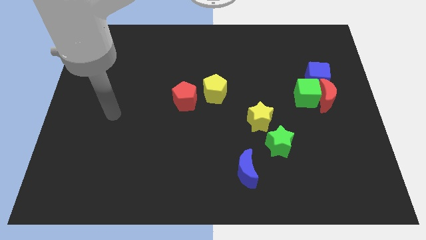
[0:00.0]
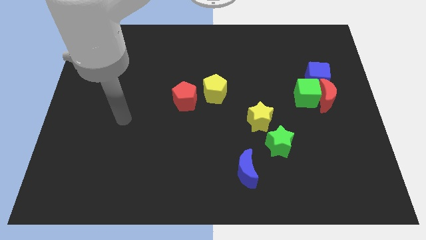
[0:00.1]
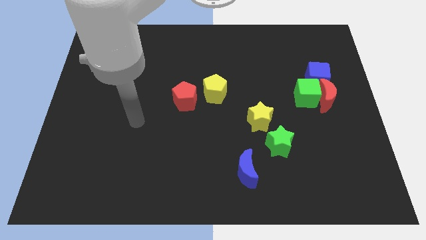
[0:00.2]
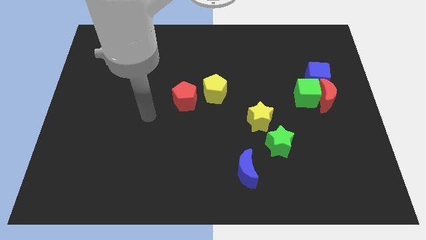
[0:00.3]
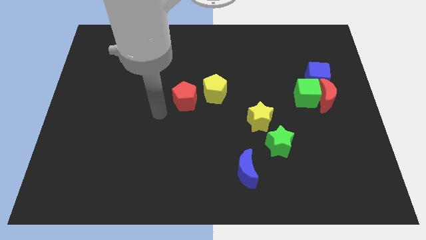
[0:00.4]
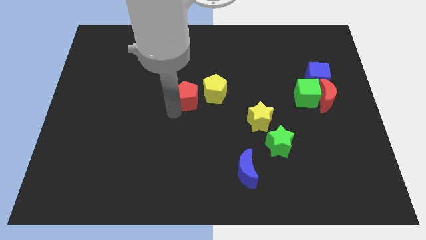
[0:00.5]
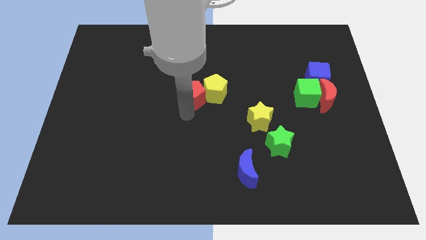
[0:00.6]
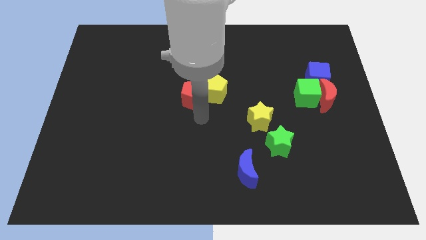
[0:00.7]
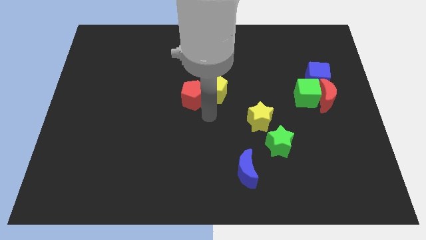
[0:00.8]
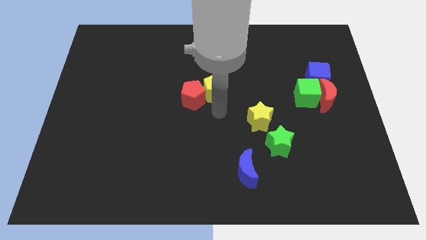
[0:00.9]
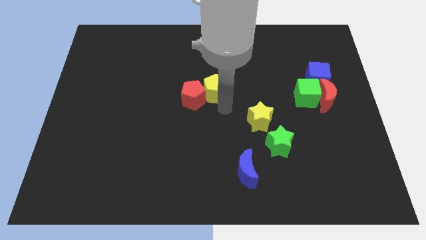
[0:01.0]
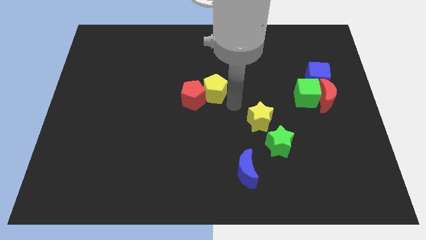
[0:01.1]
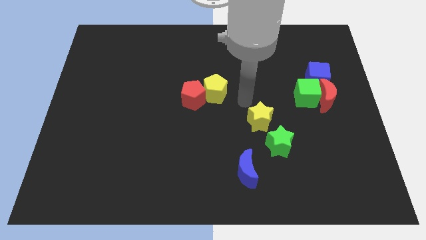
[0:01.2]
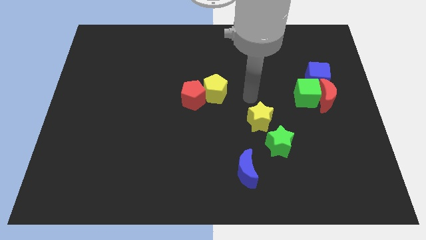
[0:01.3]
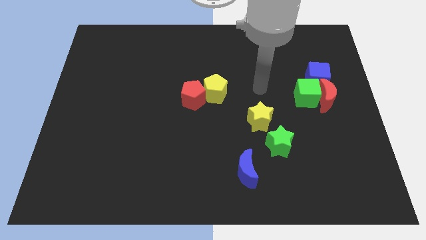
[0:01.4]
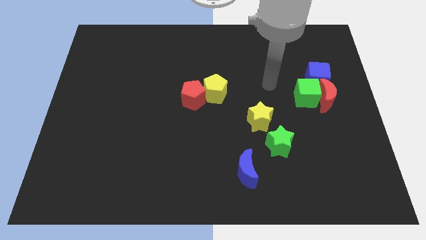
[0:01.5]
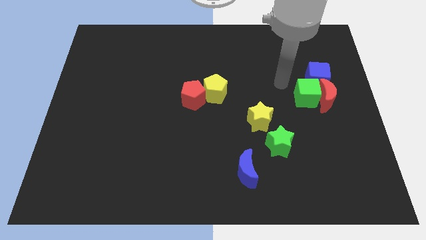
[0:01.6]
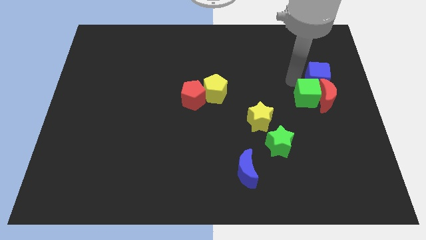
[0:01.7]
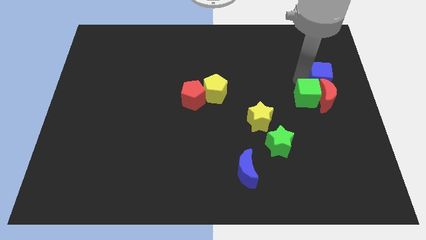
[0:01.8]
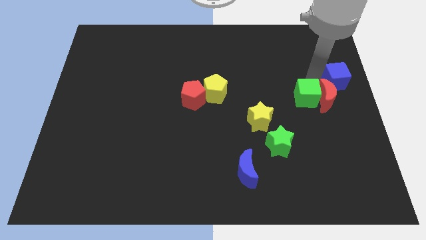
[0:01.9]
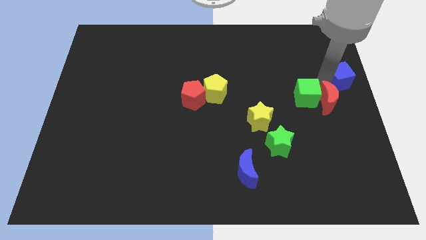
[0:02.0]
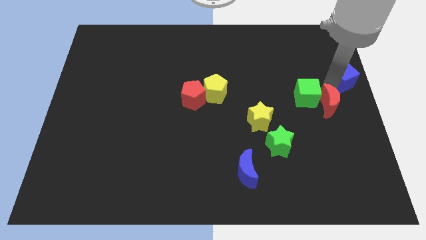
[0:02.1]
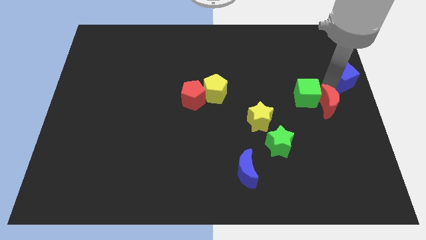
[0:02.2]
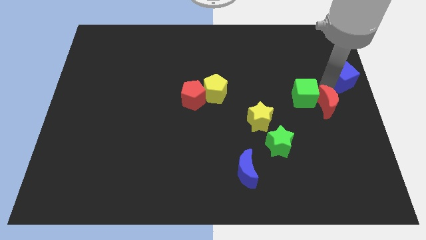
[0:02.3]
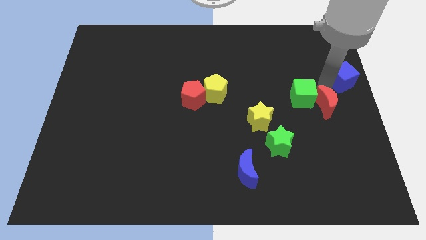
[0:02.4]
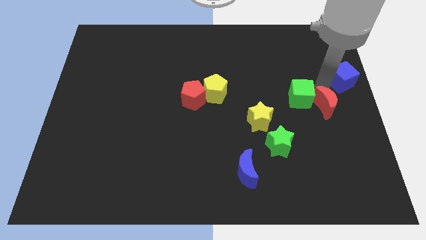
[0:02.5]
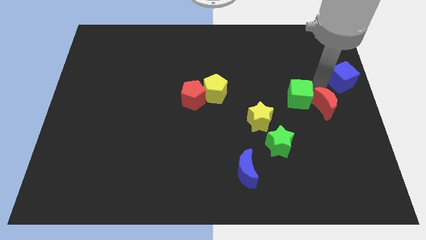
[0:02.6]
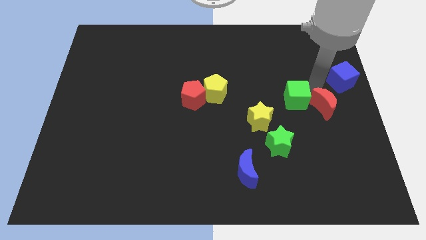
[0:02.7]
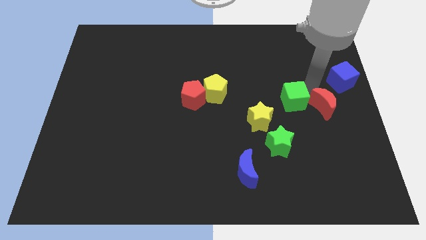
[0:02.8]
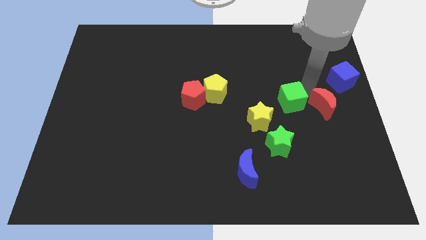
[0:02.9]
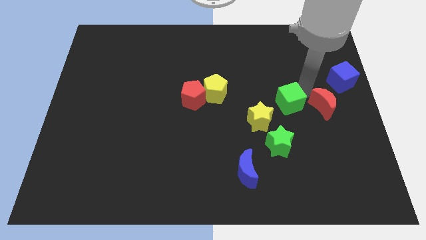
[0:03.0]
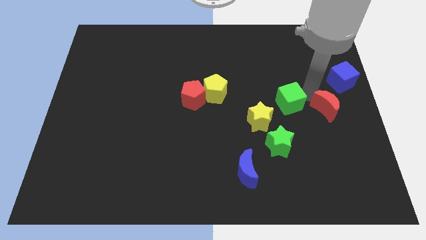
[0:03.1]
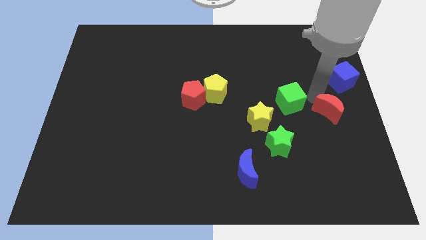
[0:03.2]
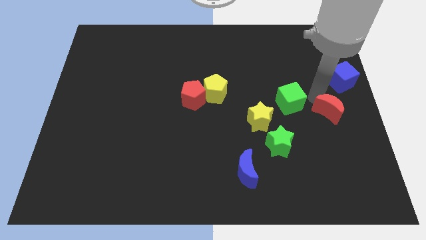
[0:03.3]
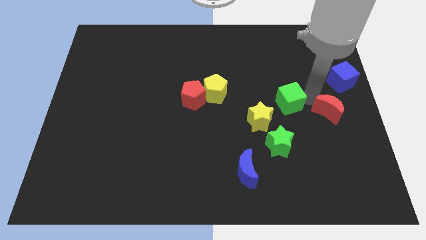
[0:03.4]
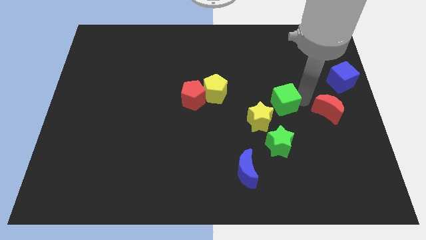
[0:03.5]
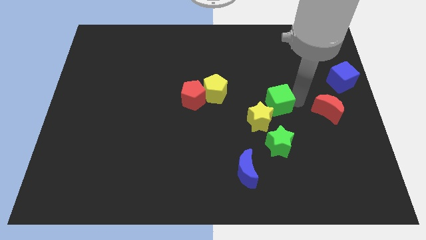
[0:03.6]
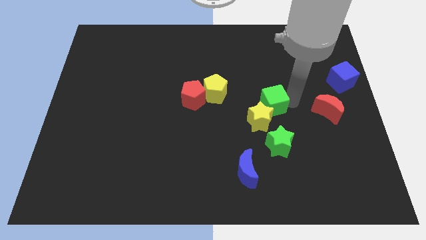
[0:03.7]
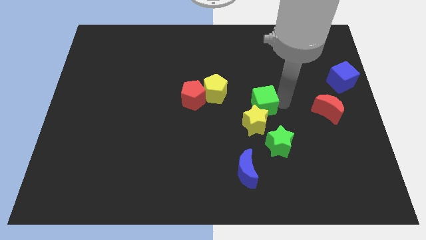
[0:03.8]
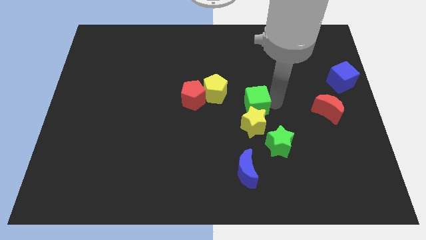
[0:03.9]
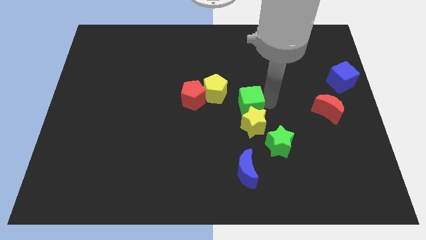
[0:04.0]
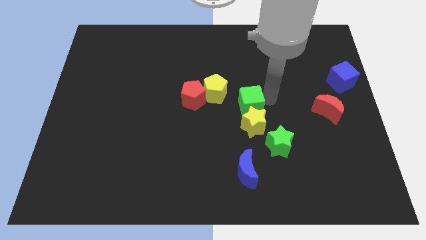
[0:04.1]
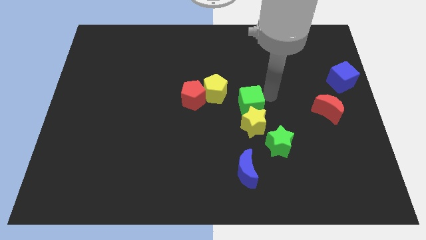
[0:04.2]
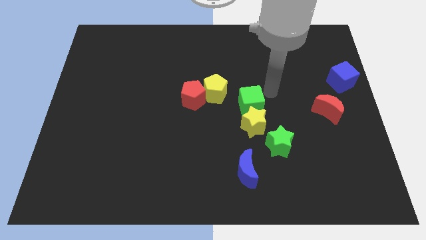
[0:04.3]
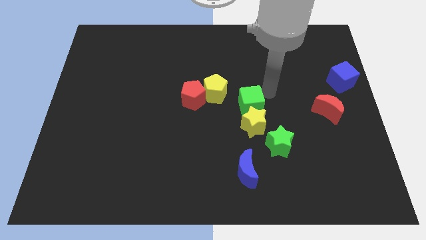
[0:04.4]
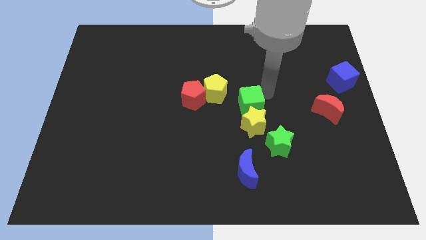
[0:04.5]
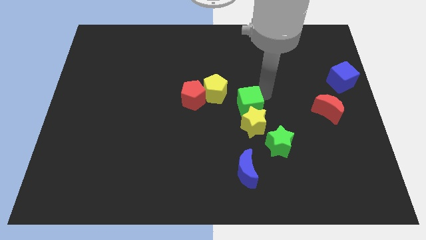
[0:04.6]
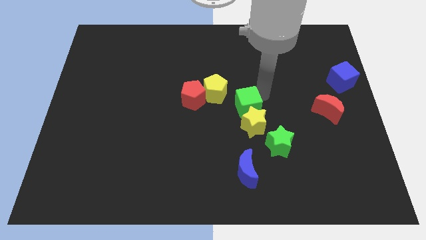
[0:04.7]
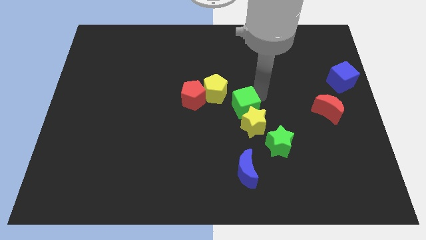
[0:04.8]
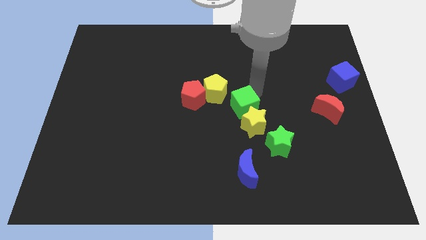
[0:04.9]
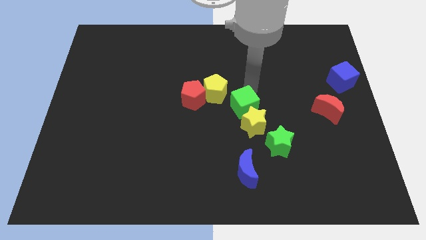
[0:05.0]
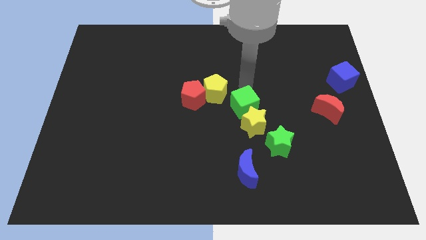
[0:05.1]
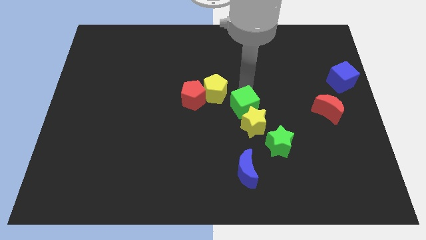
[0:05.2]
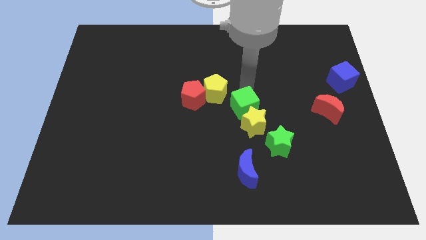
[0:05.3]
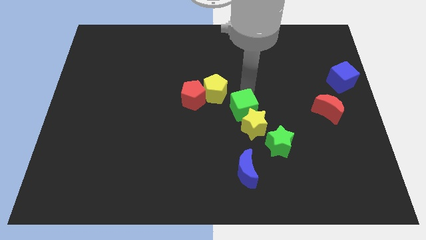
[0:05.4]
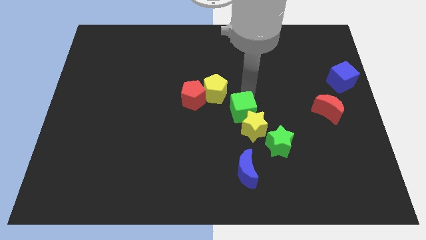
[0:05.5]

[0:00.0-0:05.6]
slide the green cube to the top of the blue moon

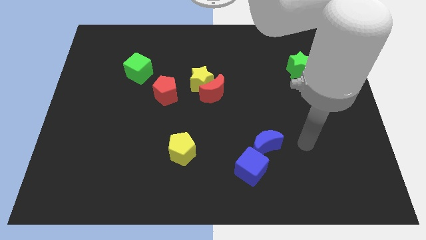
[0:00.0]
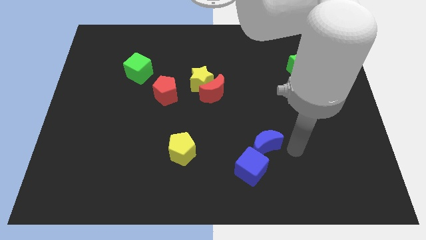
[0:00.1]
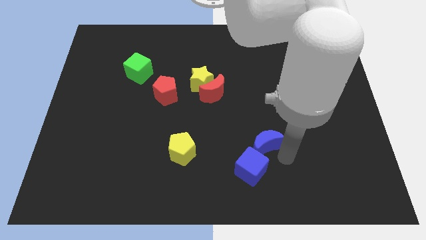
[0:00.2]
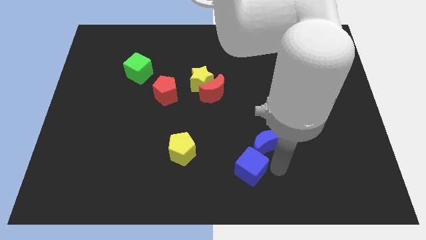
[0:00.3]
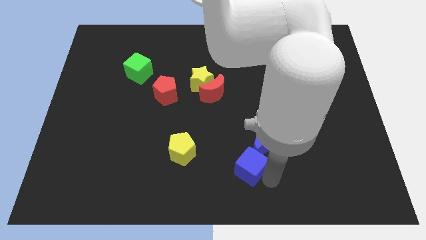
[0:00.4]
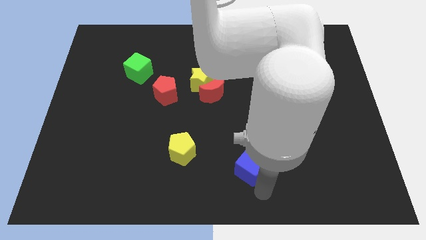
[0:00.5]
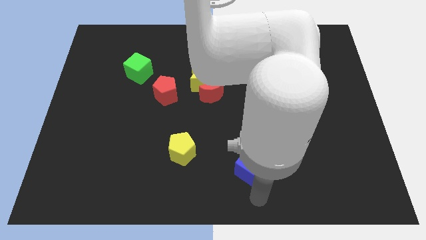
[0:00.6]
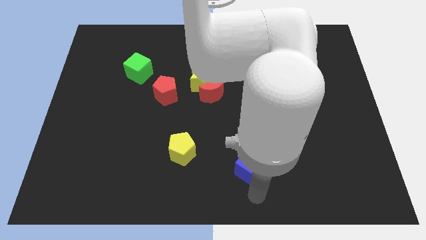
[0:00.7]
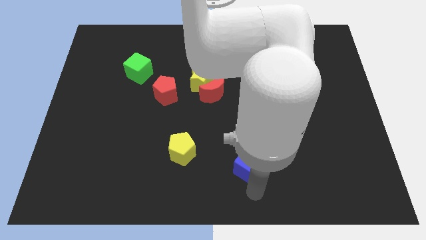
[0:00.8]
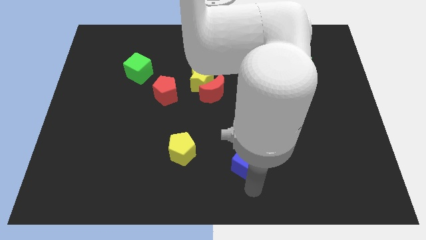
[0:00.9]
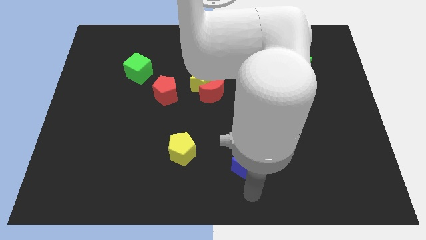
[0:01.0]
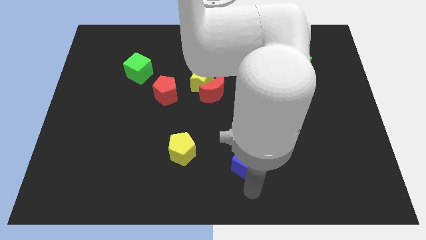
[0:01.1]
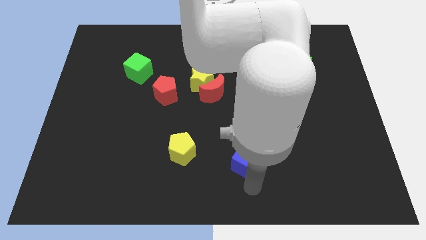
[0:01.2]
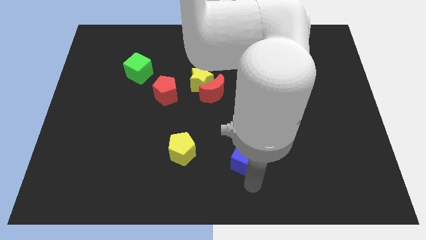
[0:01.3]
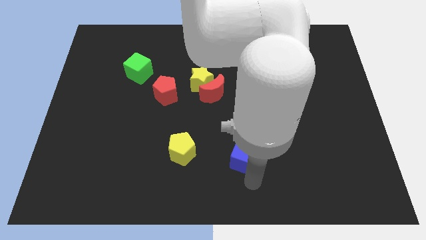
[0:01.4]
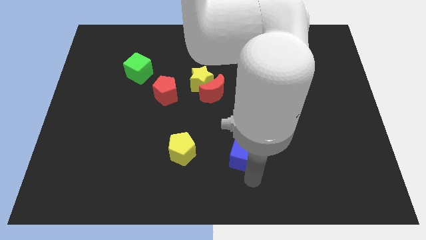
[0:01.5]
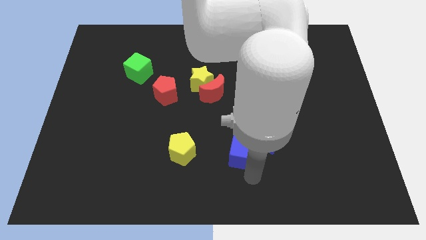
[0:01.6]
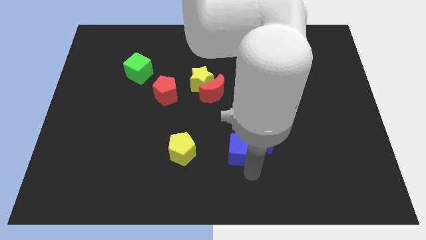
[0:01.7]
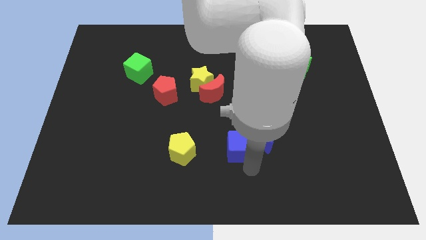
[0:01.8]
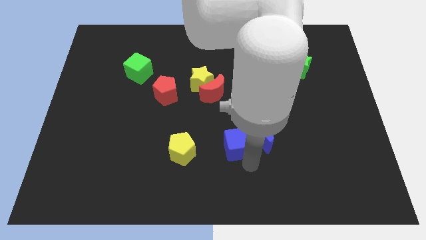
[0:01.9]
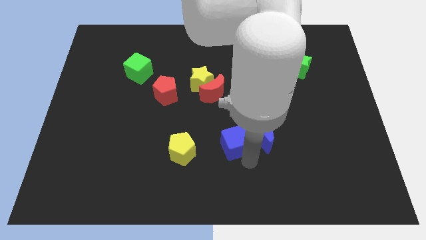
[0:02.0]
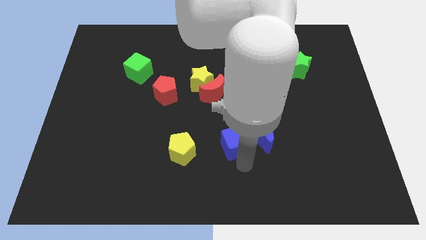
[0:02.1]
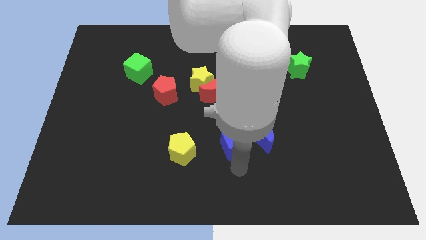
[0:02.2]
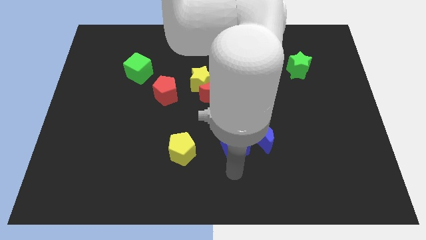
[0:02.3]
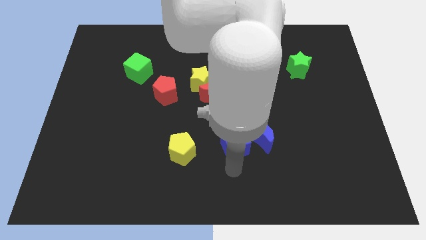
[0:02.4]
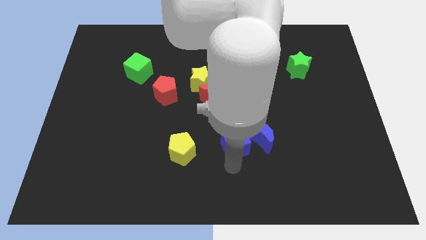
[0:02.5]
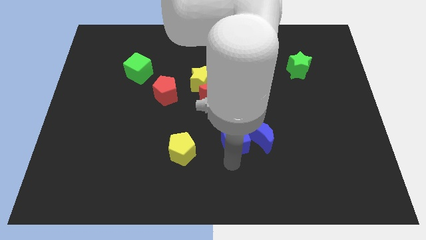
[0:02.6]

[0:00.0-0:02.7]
slide the blue cube diagonally up and to the left of the blue moon
